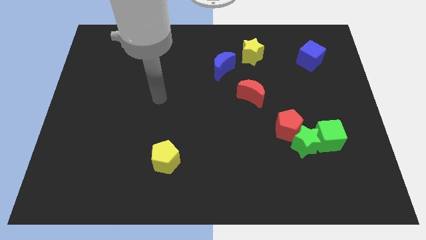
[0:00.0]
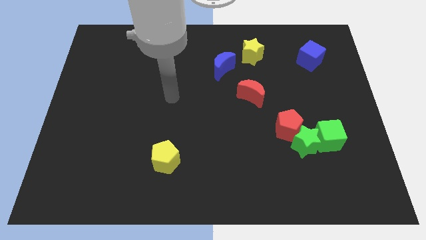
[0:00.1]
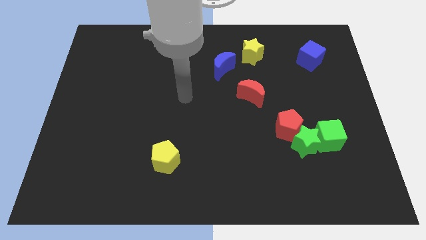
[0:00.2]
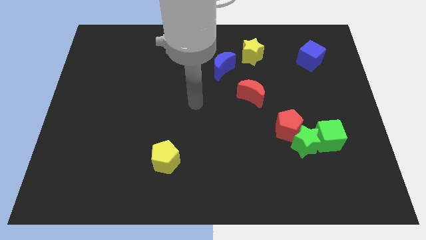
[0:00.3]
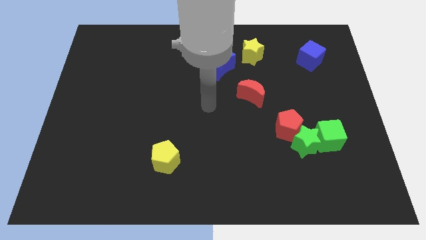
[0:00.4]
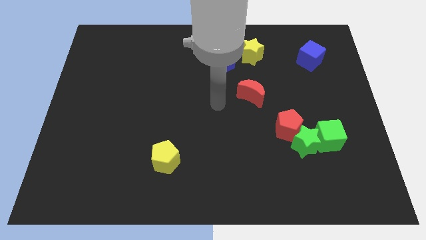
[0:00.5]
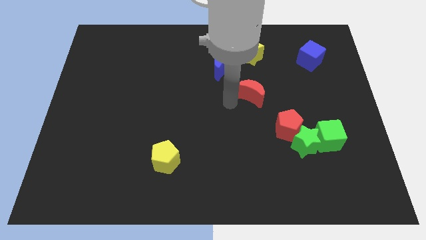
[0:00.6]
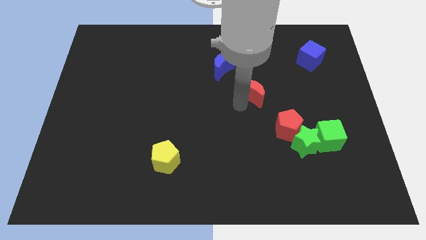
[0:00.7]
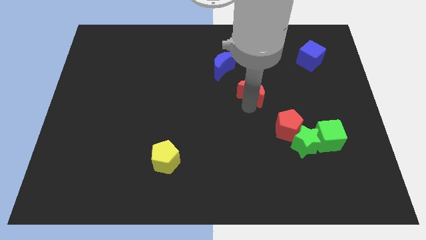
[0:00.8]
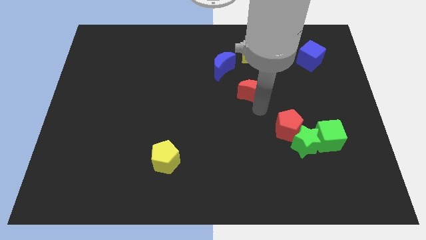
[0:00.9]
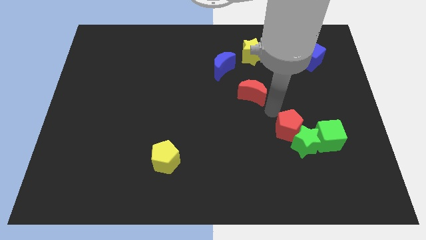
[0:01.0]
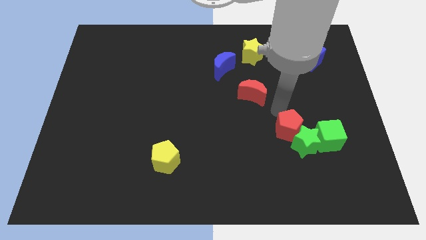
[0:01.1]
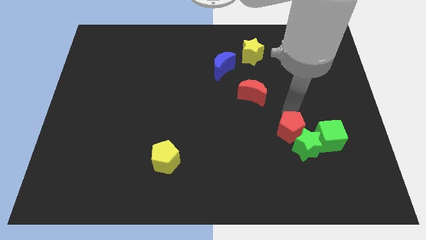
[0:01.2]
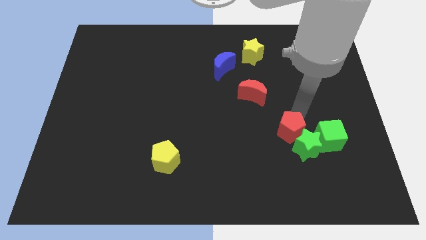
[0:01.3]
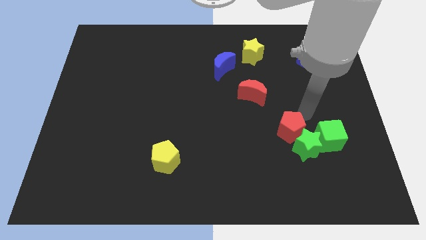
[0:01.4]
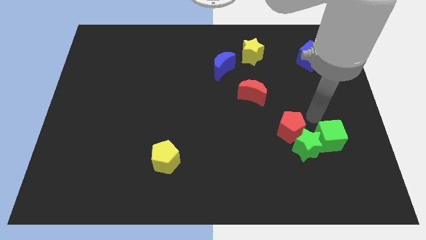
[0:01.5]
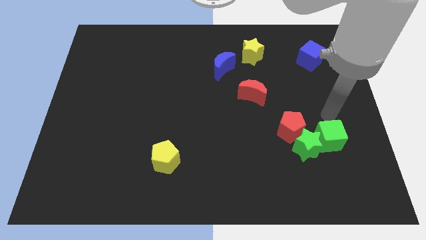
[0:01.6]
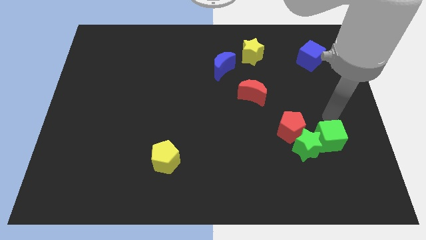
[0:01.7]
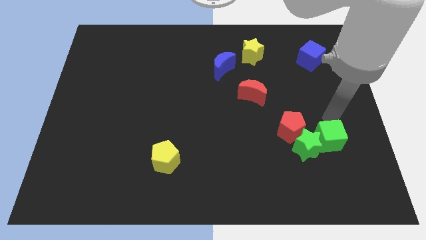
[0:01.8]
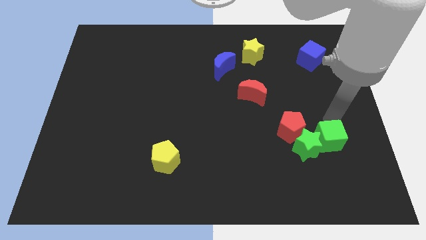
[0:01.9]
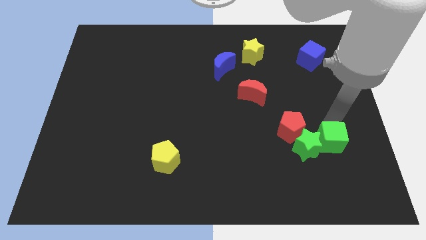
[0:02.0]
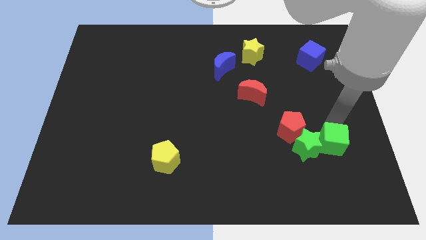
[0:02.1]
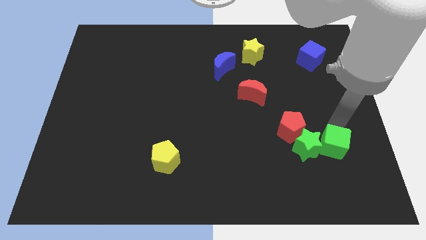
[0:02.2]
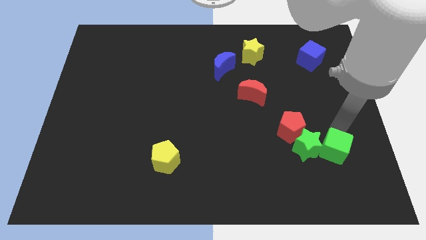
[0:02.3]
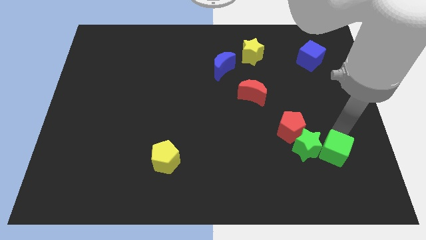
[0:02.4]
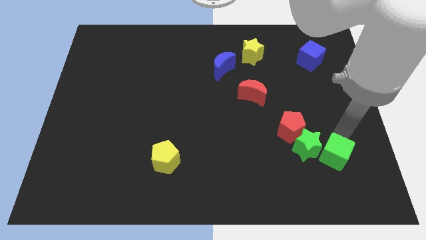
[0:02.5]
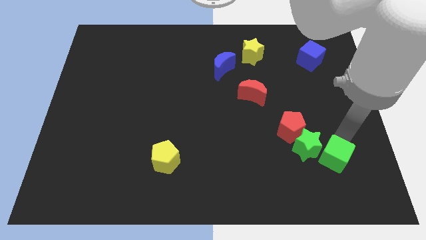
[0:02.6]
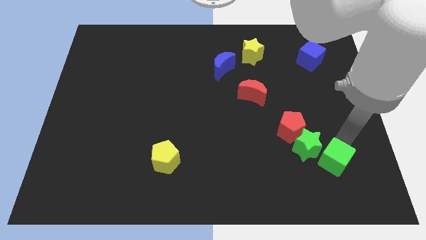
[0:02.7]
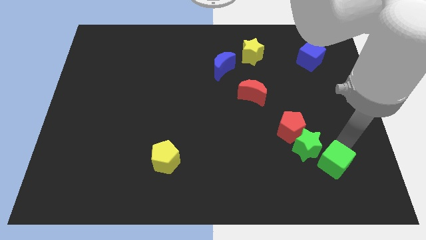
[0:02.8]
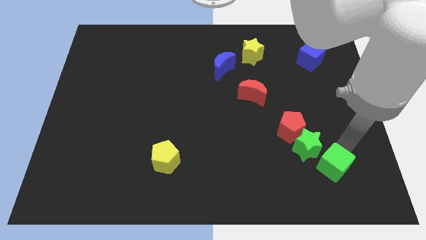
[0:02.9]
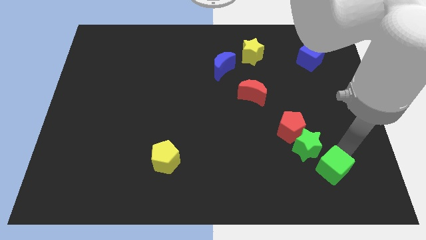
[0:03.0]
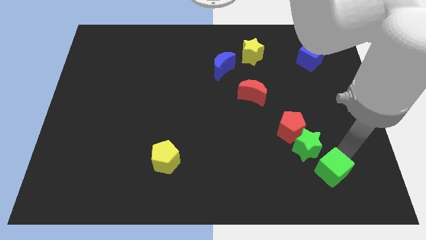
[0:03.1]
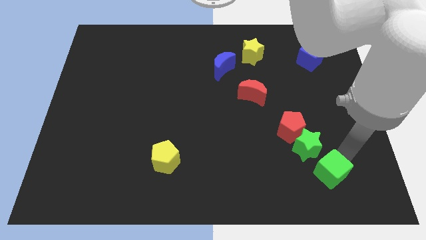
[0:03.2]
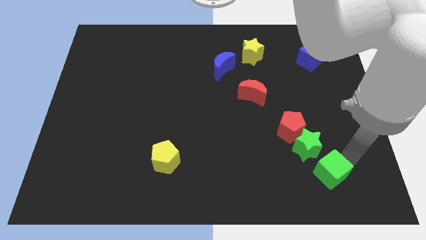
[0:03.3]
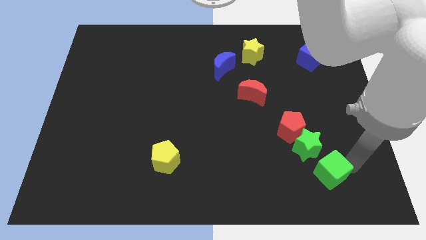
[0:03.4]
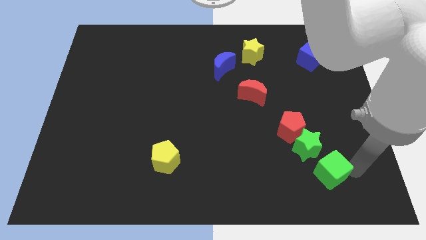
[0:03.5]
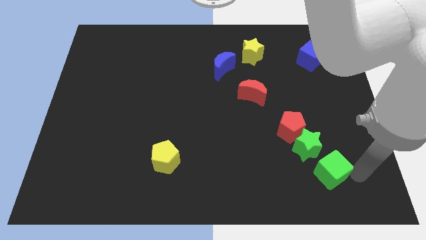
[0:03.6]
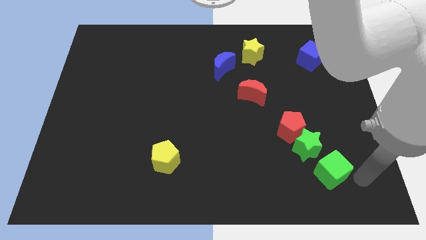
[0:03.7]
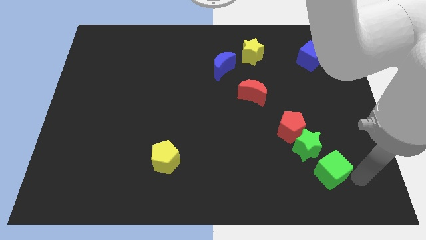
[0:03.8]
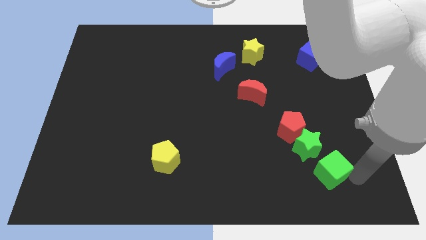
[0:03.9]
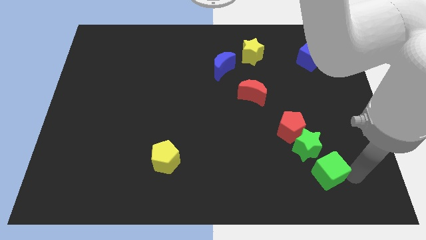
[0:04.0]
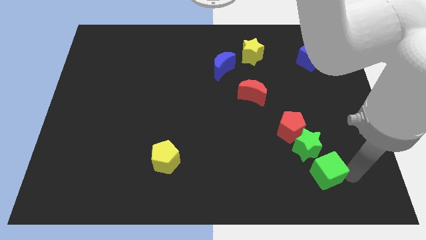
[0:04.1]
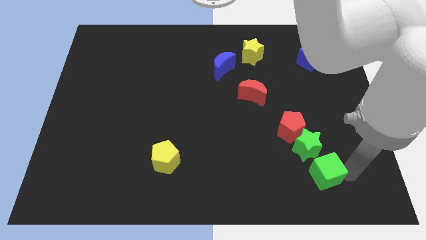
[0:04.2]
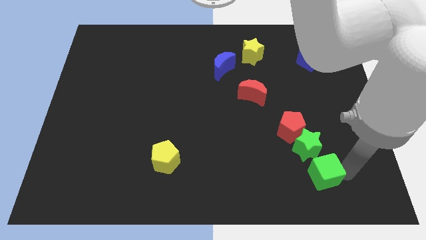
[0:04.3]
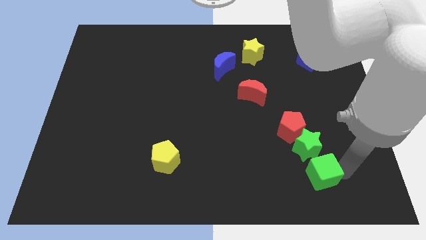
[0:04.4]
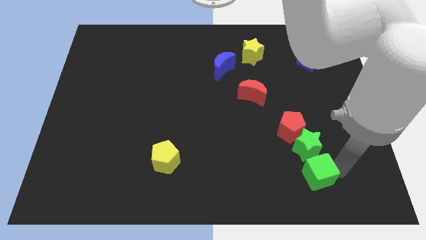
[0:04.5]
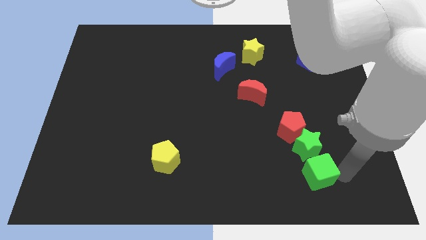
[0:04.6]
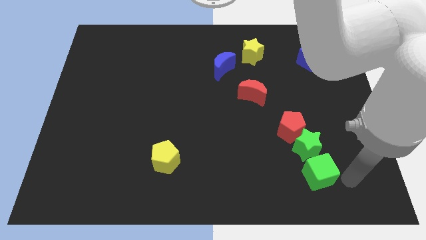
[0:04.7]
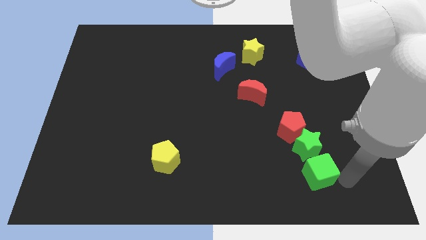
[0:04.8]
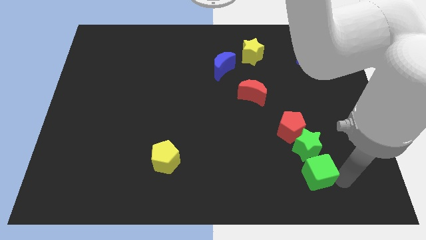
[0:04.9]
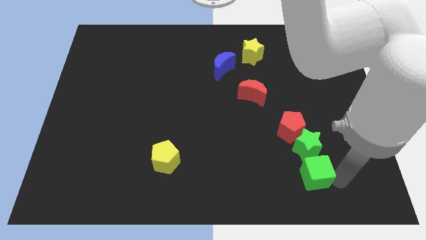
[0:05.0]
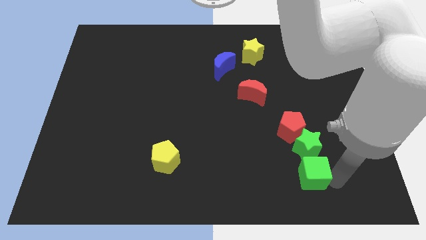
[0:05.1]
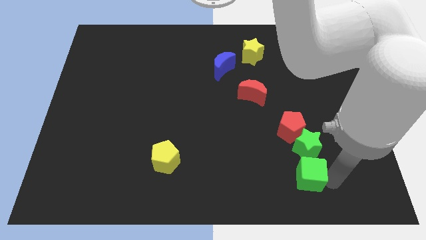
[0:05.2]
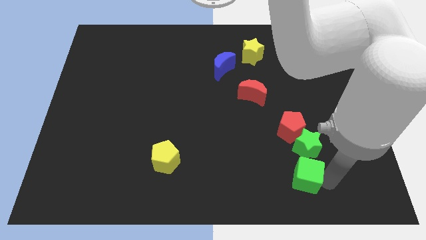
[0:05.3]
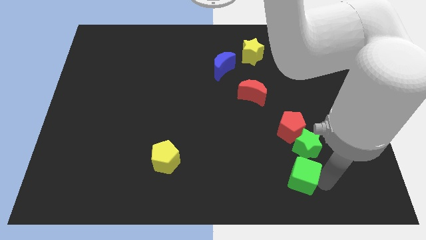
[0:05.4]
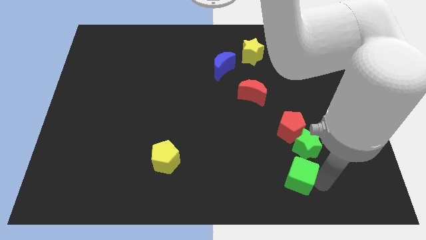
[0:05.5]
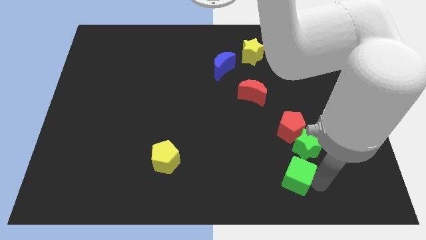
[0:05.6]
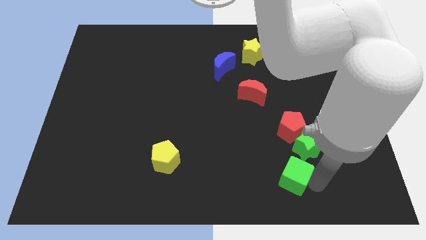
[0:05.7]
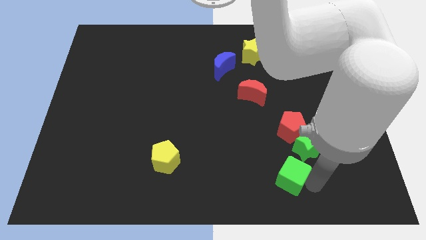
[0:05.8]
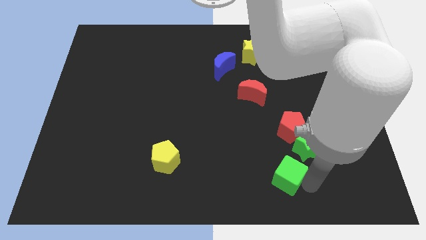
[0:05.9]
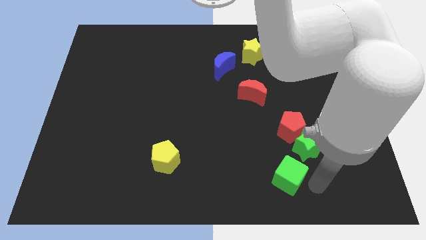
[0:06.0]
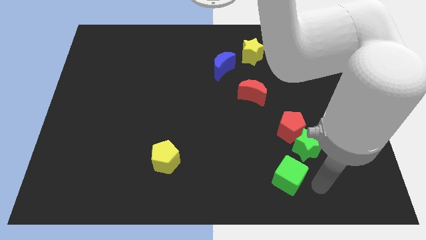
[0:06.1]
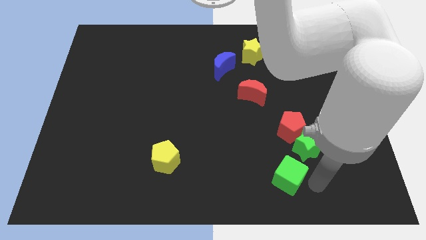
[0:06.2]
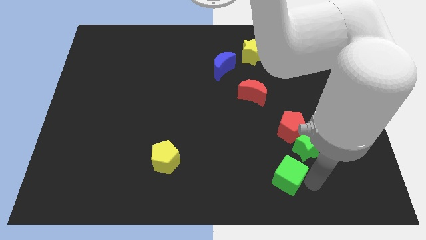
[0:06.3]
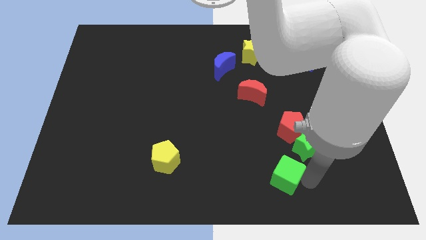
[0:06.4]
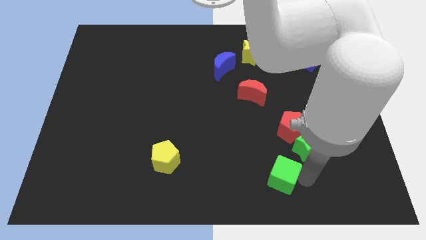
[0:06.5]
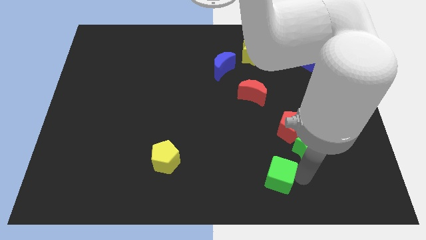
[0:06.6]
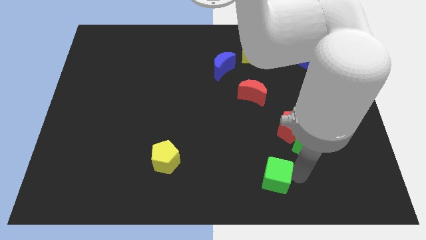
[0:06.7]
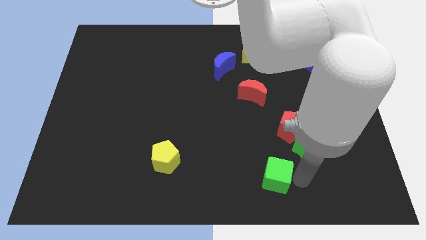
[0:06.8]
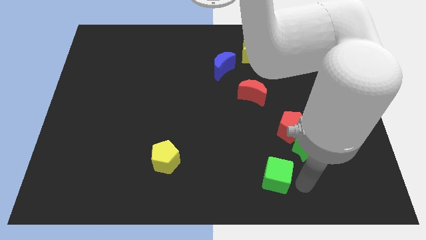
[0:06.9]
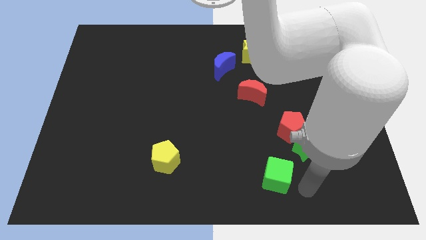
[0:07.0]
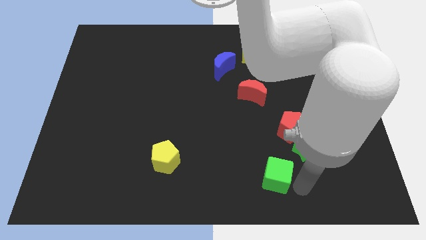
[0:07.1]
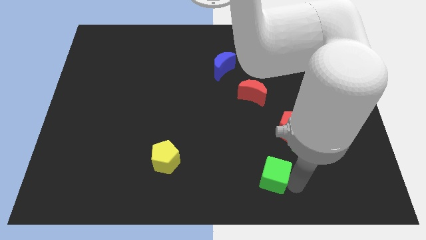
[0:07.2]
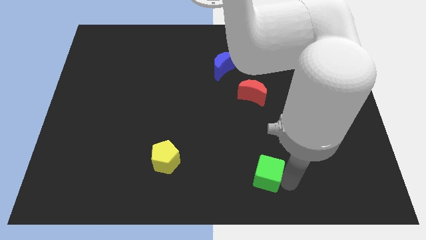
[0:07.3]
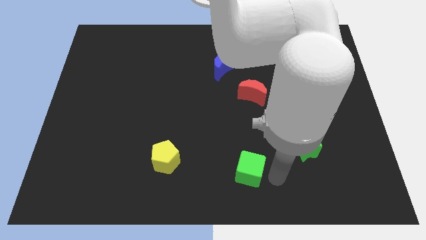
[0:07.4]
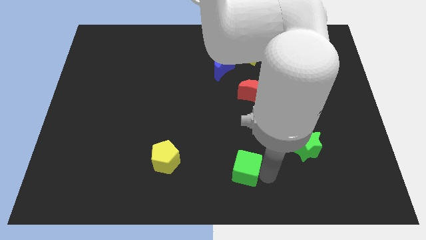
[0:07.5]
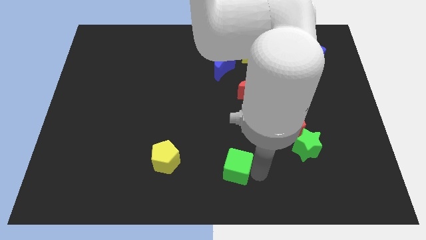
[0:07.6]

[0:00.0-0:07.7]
push the green cube to the right side of the yellow pentagon
